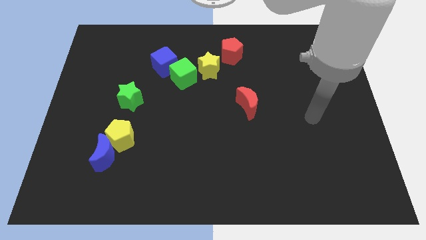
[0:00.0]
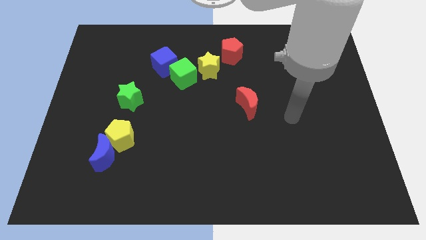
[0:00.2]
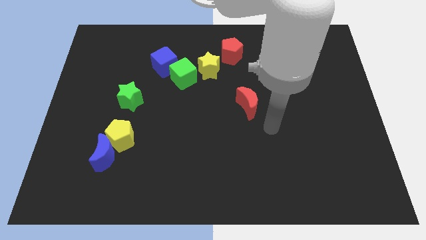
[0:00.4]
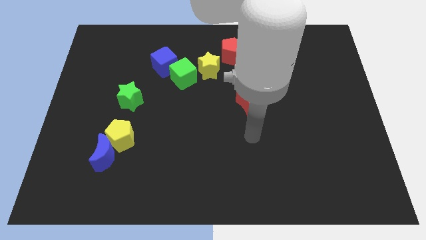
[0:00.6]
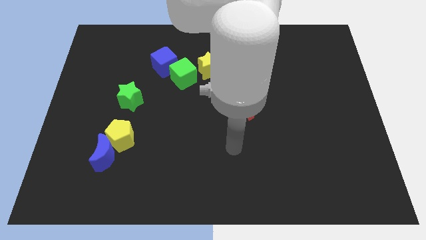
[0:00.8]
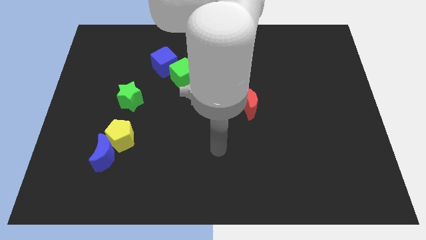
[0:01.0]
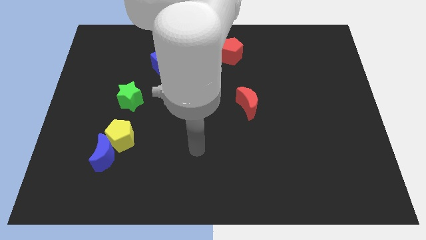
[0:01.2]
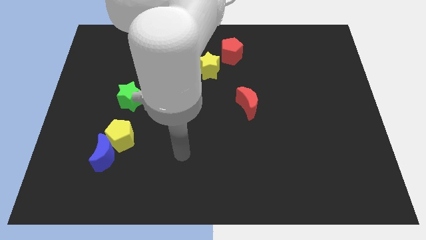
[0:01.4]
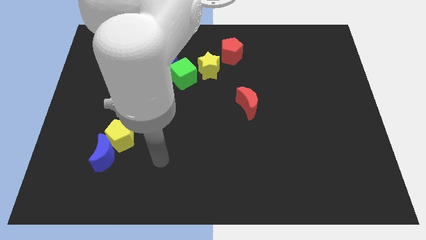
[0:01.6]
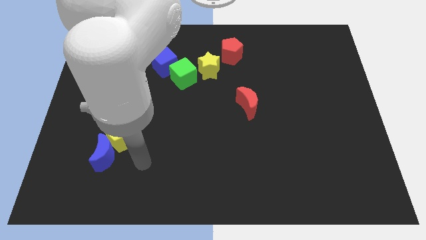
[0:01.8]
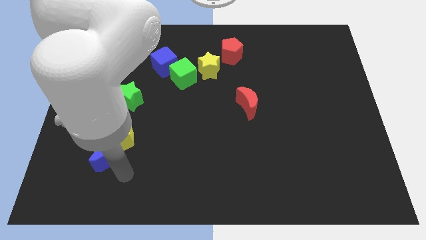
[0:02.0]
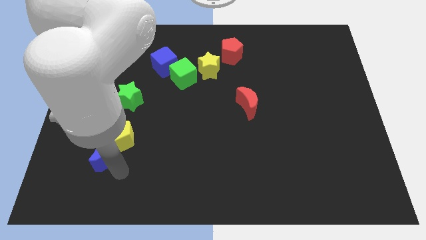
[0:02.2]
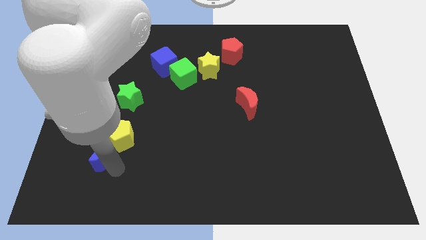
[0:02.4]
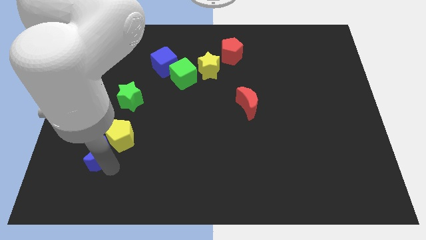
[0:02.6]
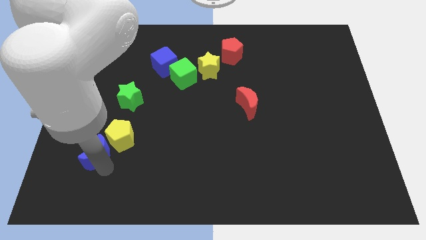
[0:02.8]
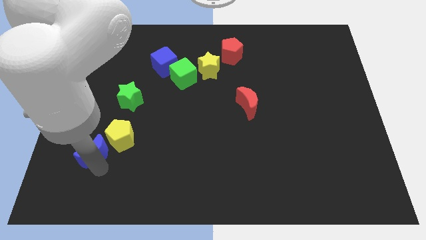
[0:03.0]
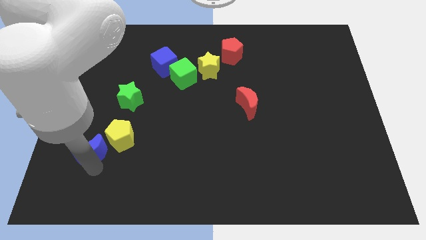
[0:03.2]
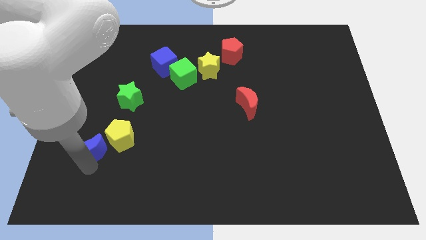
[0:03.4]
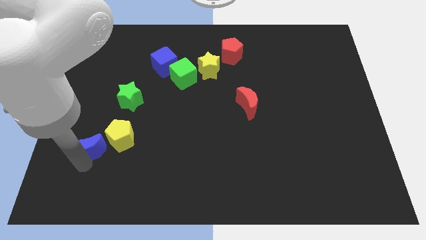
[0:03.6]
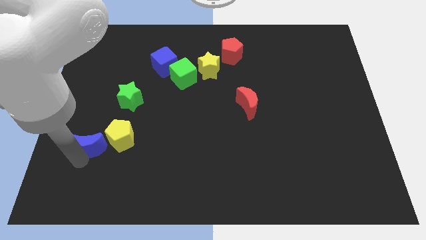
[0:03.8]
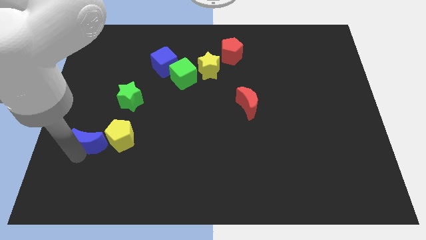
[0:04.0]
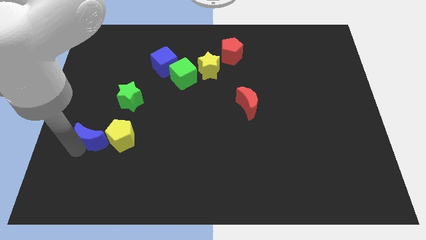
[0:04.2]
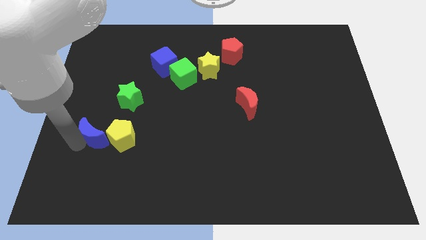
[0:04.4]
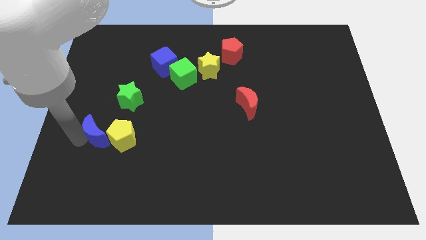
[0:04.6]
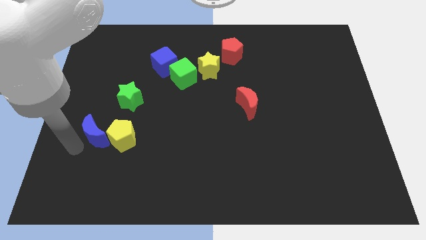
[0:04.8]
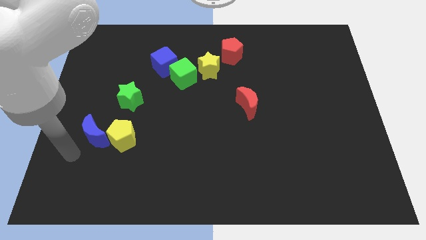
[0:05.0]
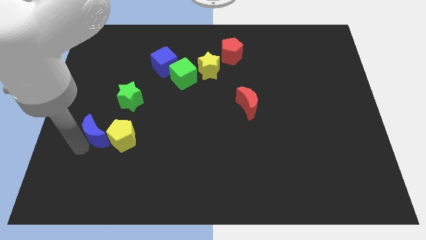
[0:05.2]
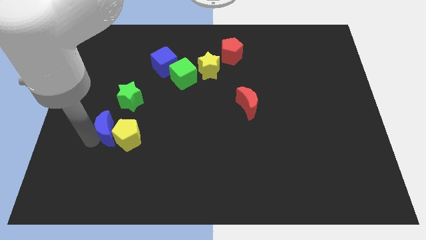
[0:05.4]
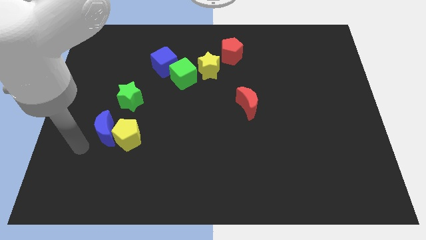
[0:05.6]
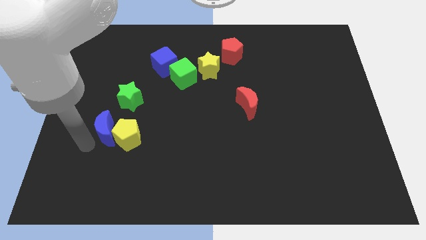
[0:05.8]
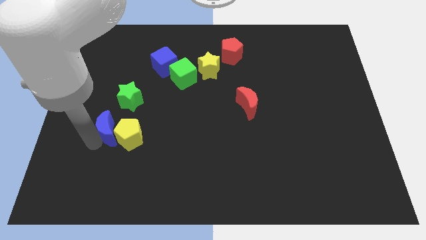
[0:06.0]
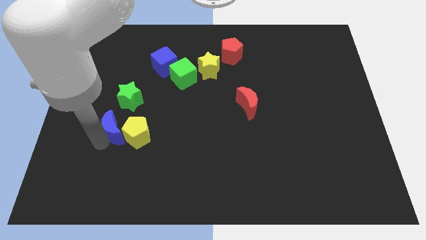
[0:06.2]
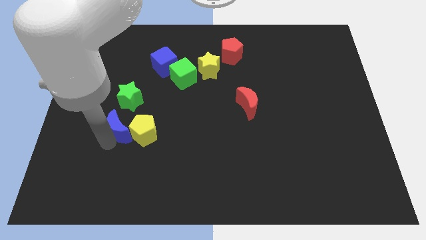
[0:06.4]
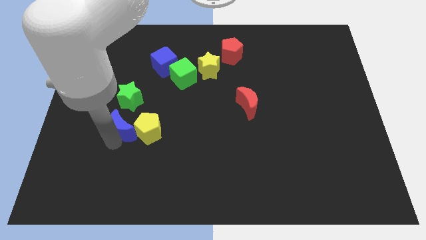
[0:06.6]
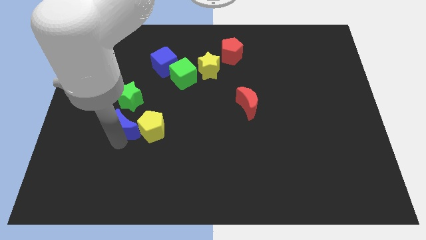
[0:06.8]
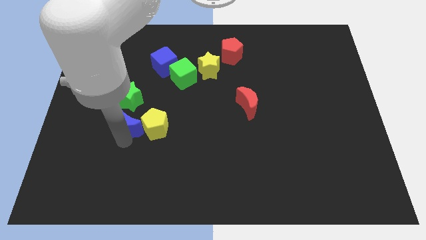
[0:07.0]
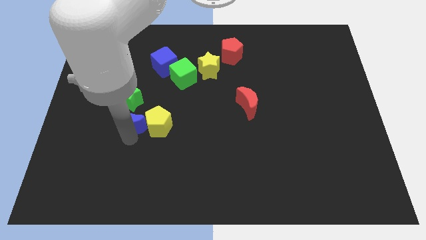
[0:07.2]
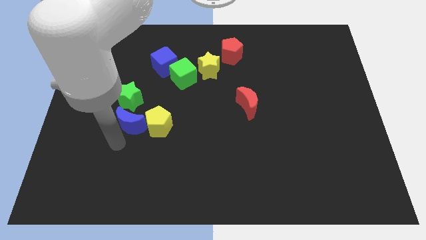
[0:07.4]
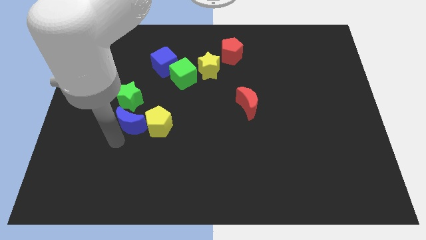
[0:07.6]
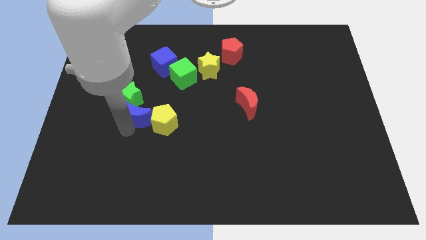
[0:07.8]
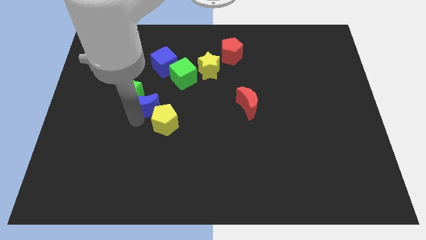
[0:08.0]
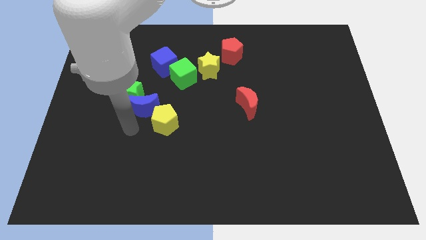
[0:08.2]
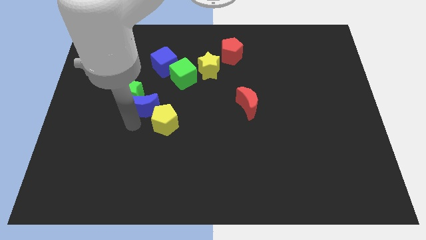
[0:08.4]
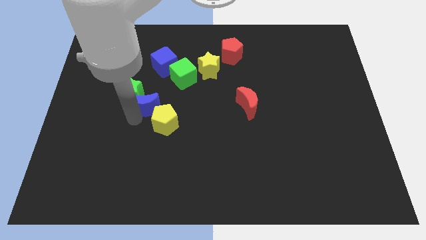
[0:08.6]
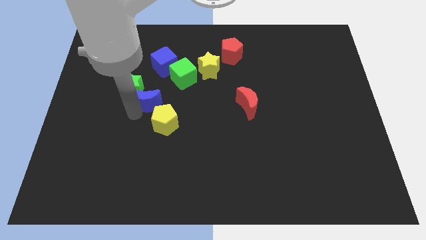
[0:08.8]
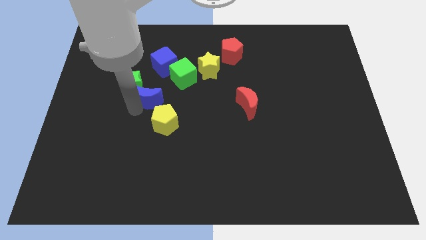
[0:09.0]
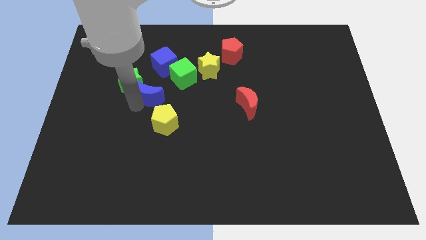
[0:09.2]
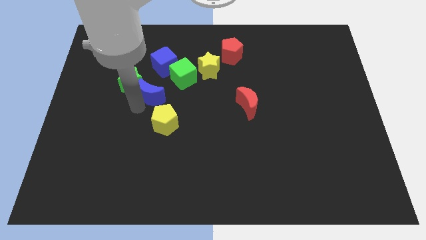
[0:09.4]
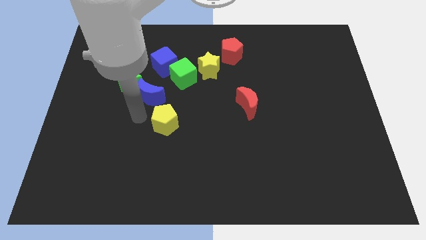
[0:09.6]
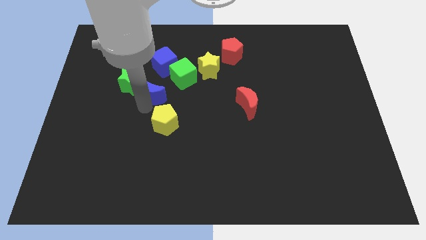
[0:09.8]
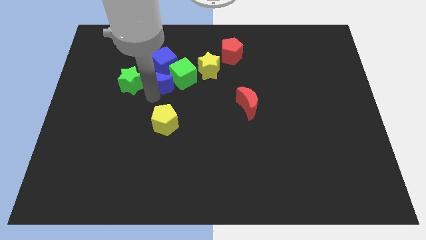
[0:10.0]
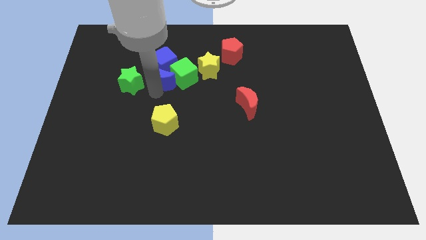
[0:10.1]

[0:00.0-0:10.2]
push the blue moon to the blue cube

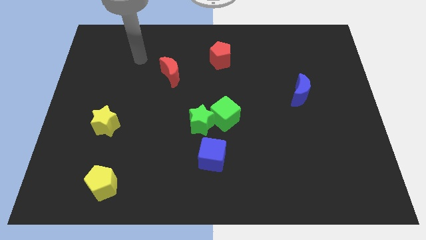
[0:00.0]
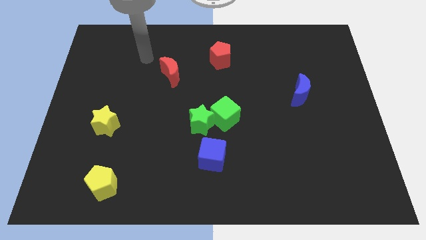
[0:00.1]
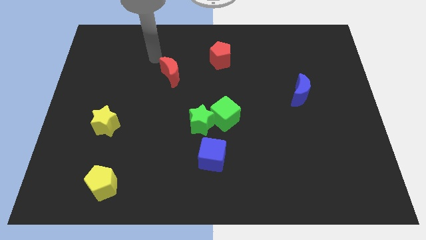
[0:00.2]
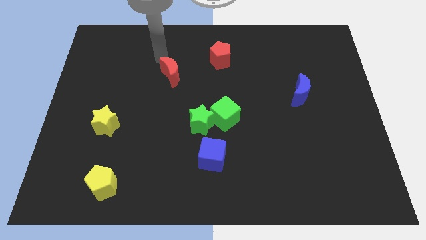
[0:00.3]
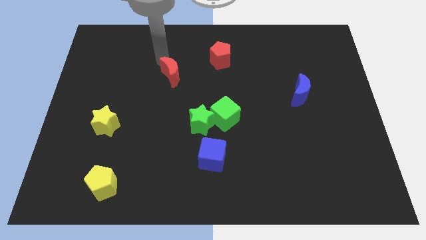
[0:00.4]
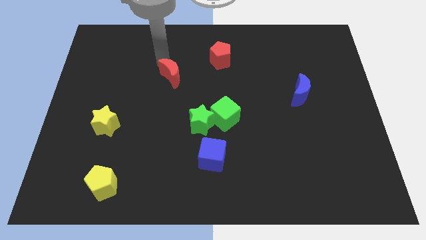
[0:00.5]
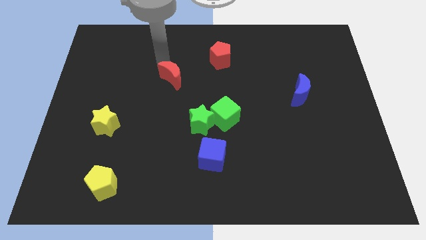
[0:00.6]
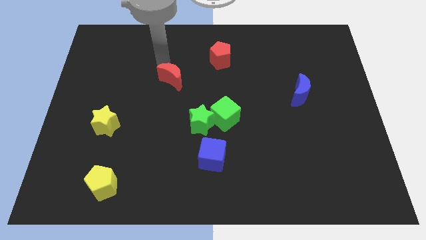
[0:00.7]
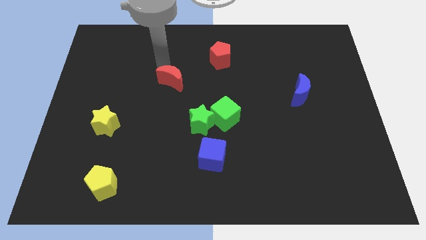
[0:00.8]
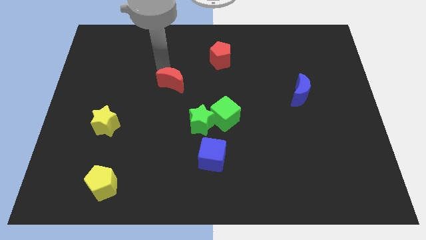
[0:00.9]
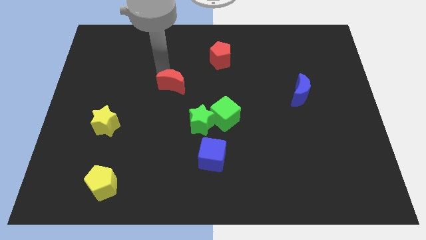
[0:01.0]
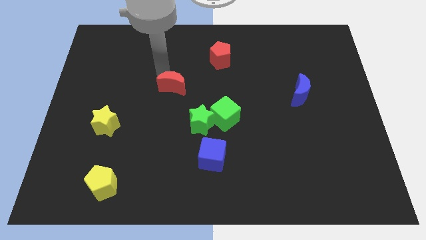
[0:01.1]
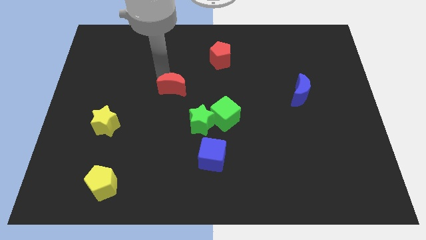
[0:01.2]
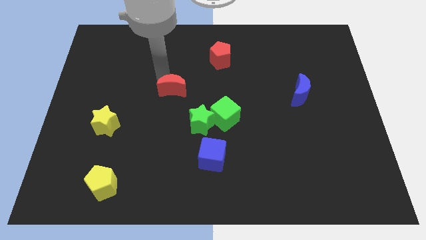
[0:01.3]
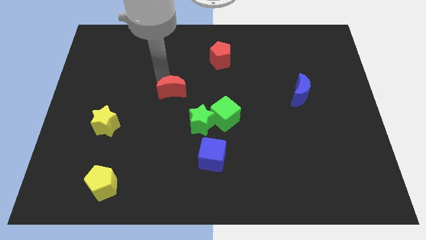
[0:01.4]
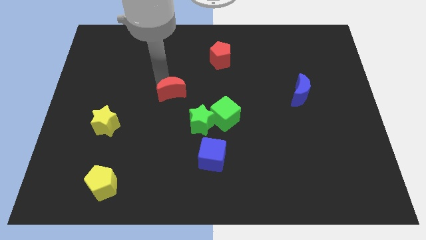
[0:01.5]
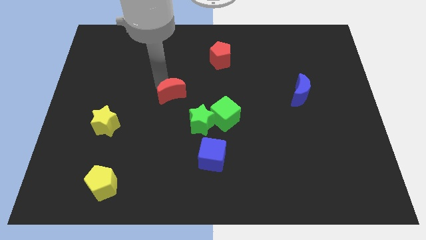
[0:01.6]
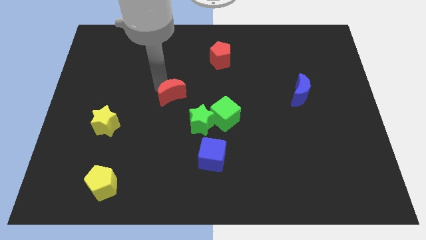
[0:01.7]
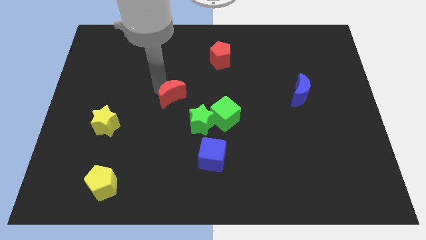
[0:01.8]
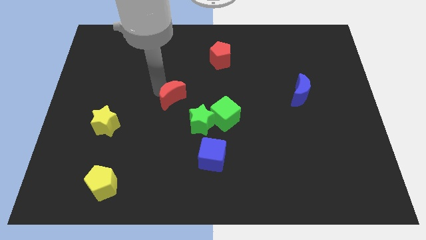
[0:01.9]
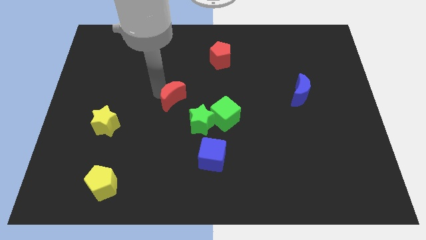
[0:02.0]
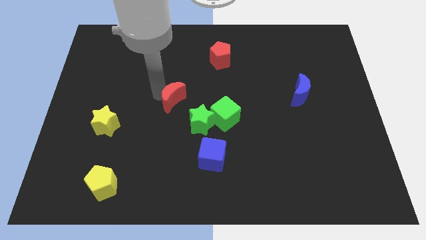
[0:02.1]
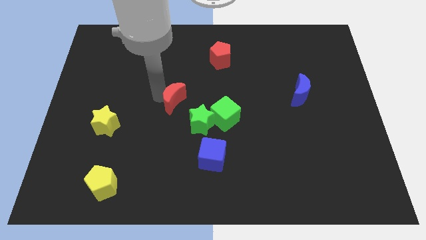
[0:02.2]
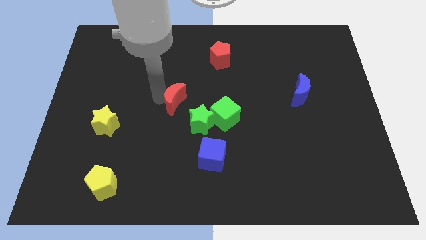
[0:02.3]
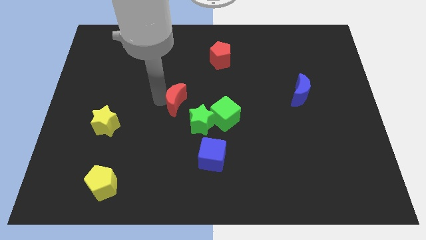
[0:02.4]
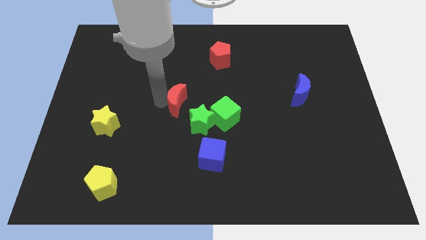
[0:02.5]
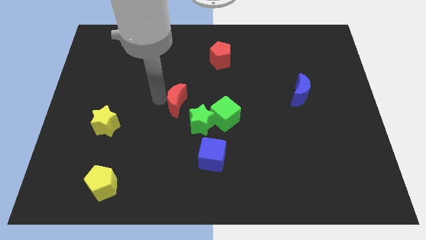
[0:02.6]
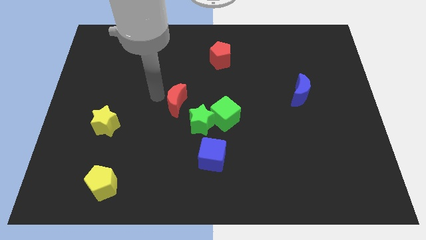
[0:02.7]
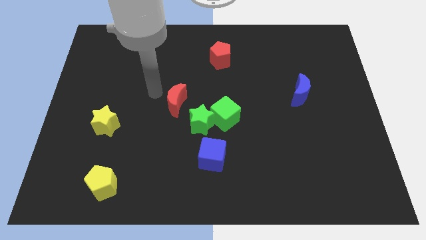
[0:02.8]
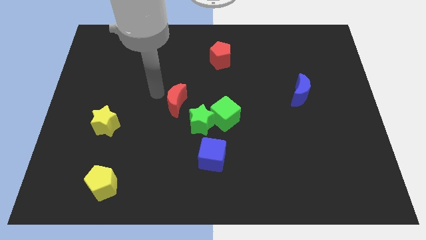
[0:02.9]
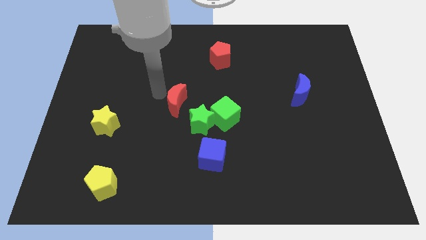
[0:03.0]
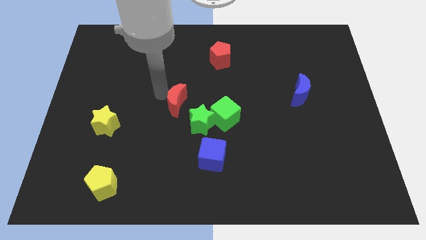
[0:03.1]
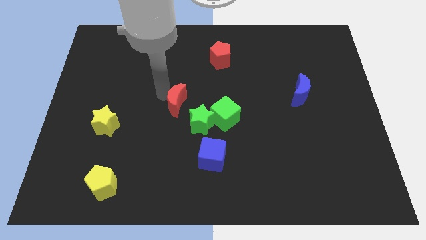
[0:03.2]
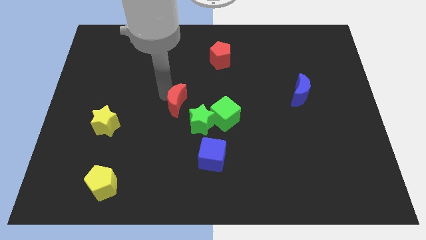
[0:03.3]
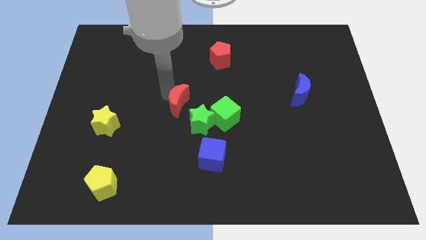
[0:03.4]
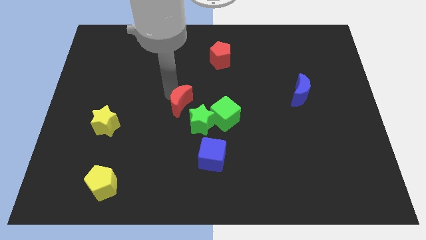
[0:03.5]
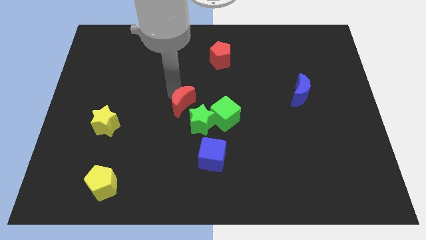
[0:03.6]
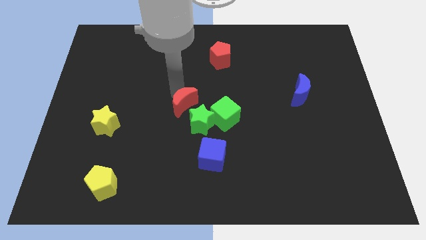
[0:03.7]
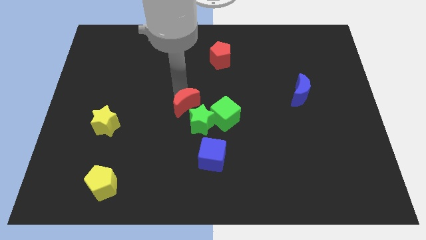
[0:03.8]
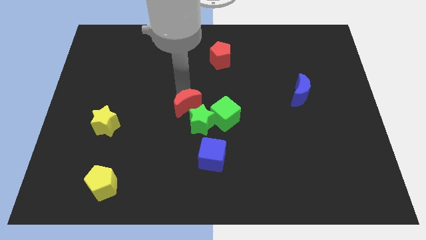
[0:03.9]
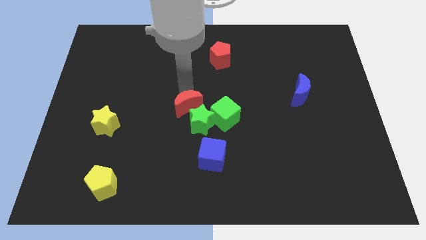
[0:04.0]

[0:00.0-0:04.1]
push the red moon close to the green star
